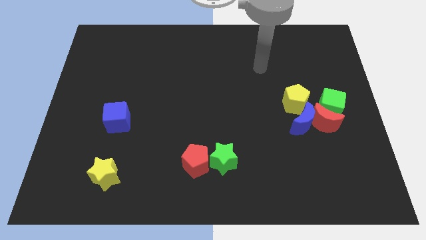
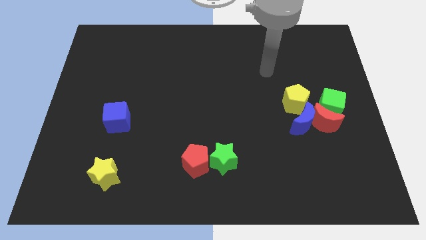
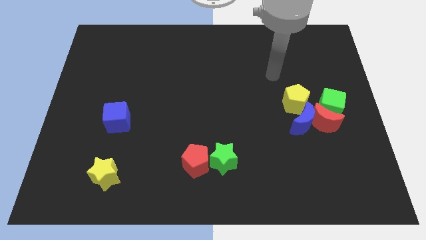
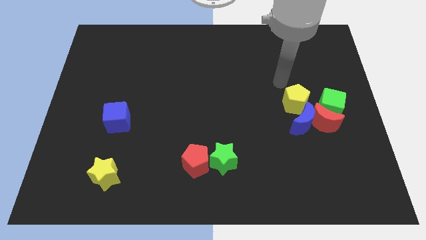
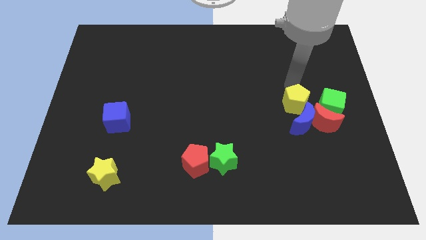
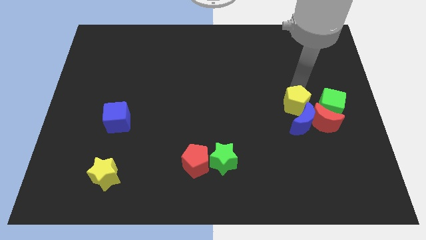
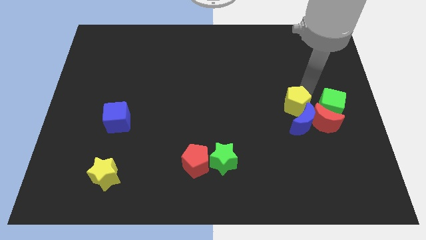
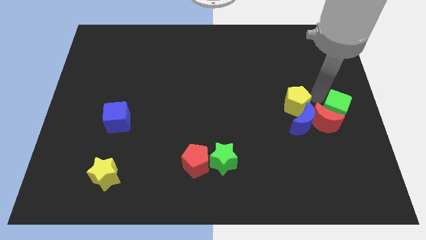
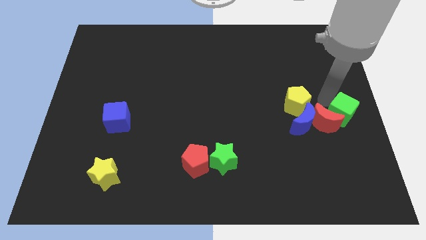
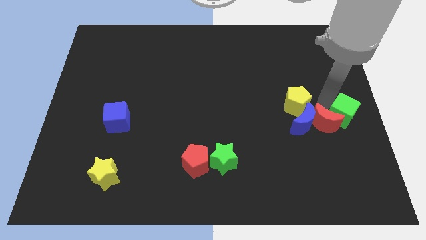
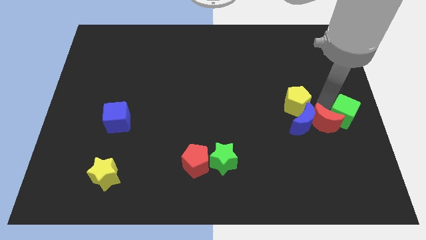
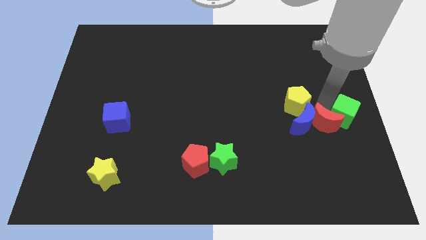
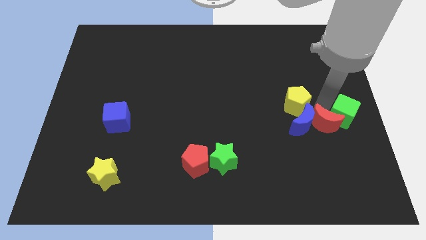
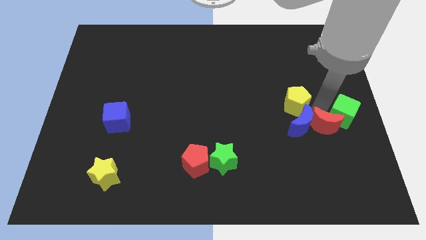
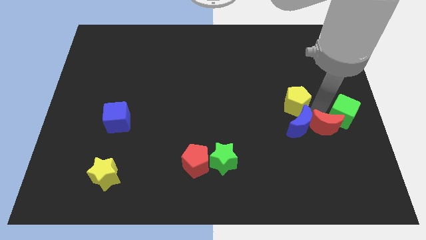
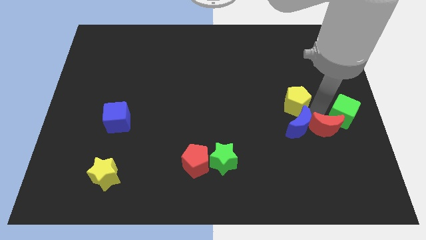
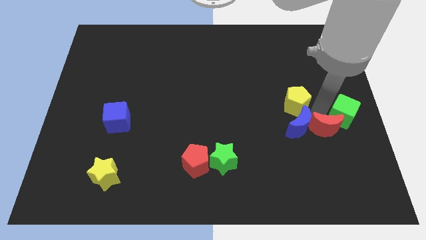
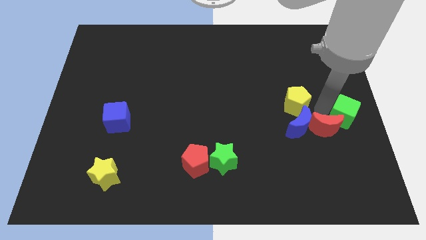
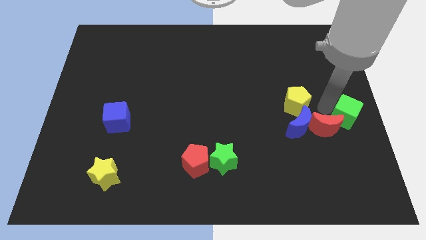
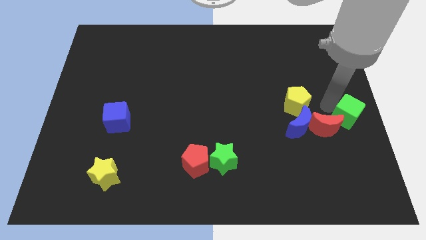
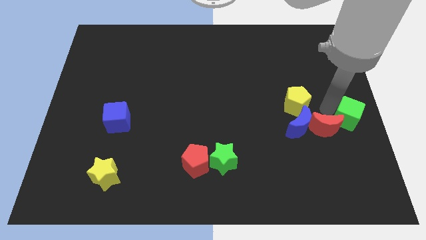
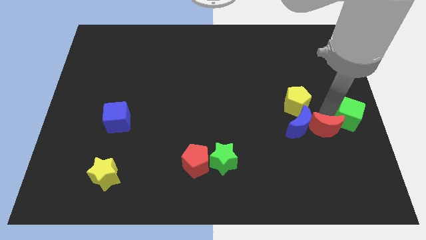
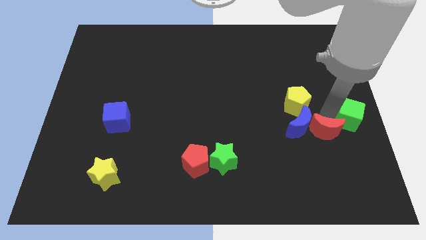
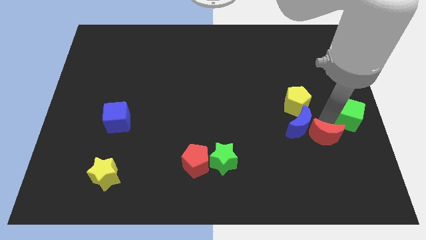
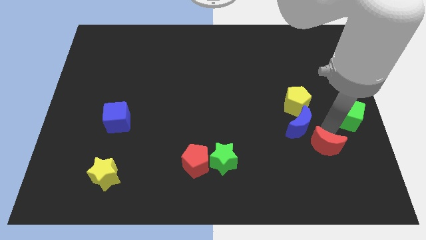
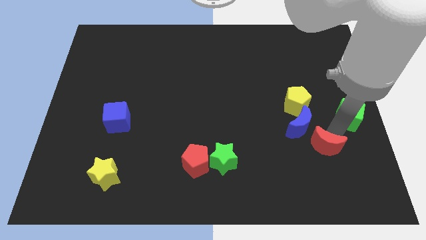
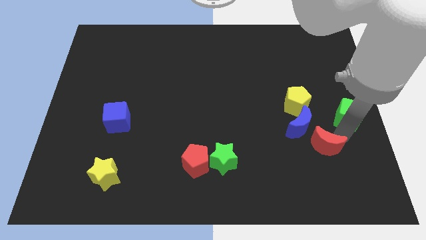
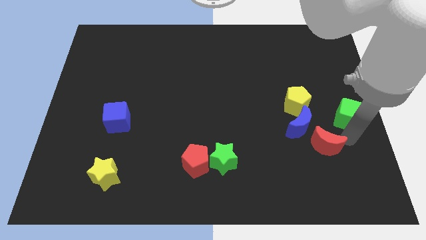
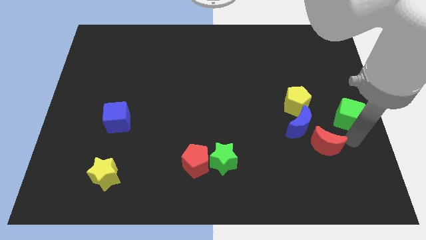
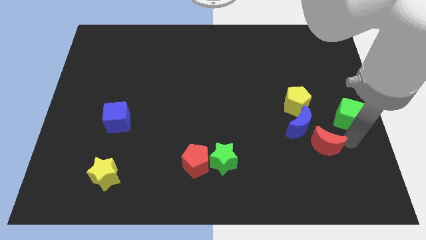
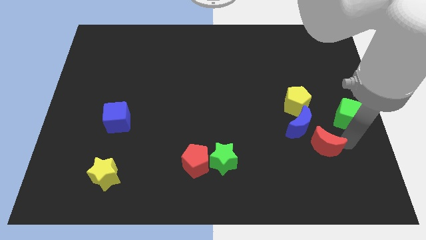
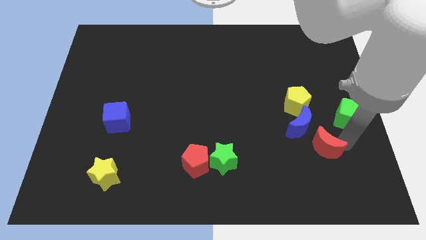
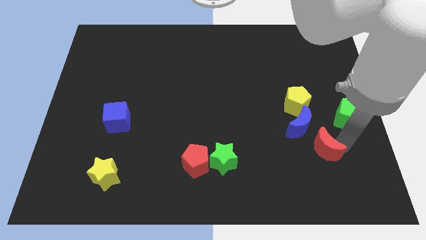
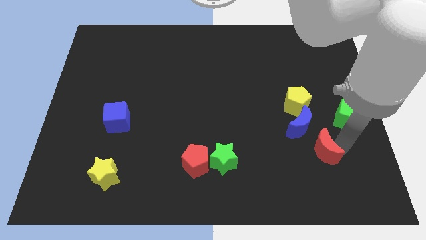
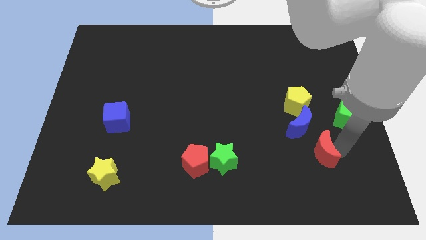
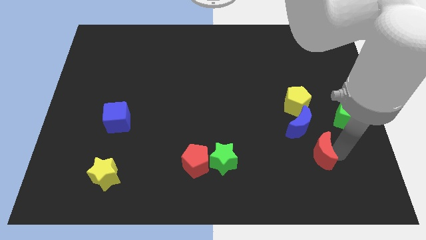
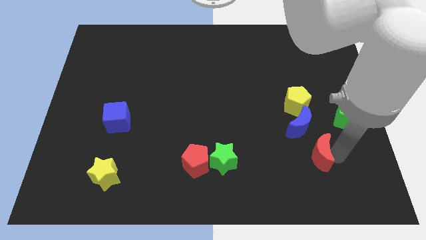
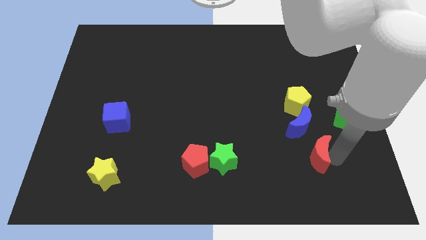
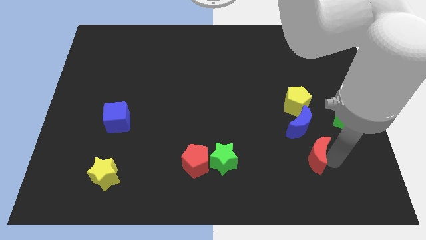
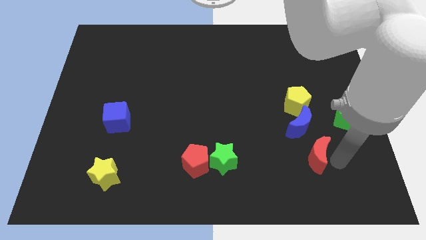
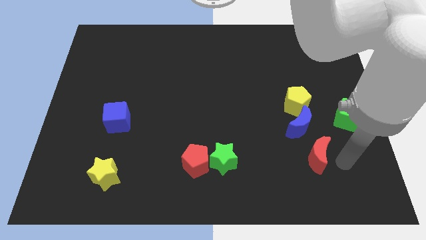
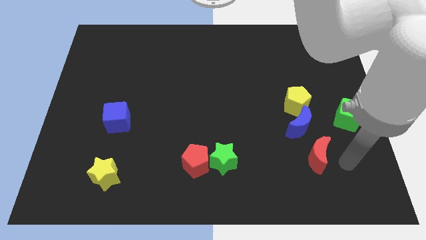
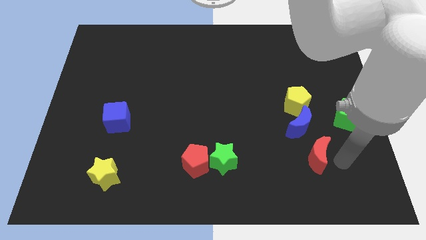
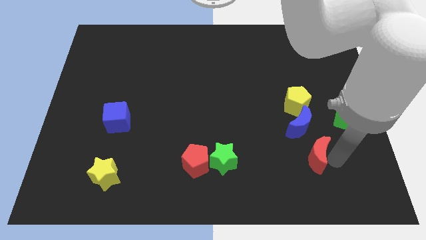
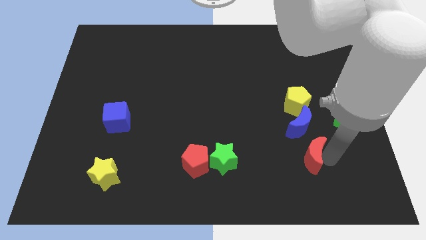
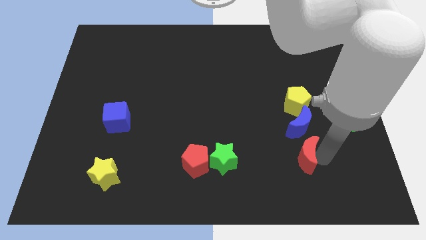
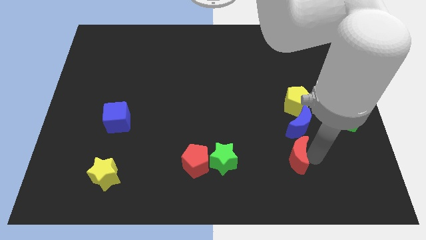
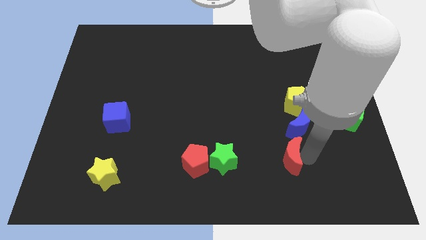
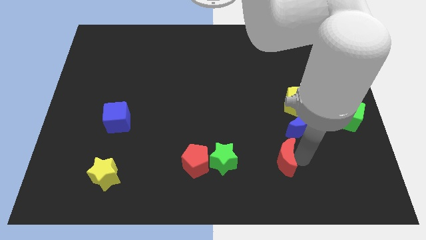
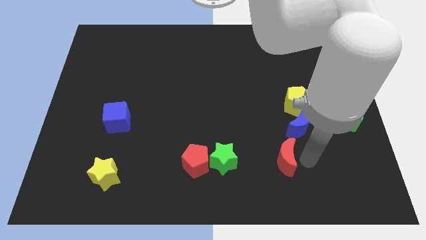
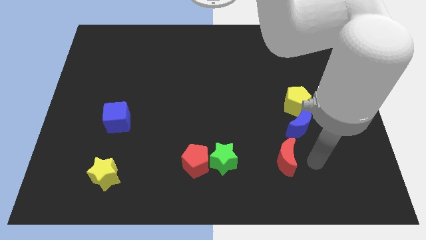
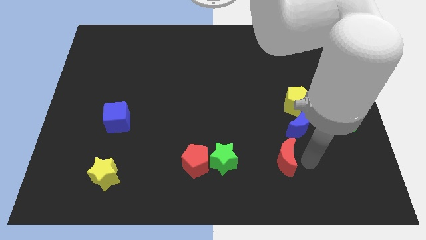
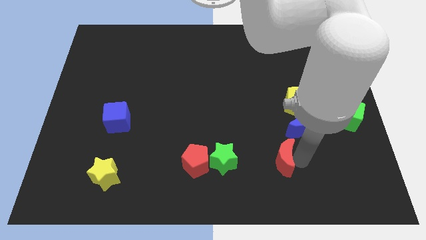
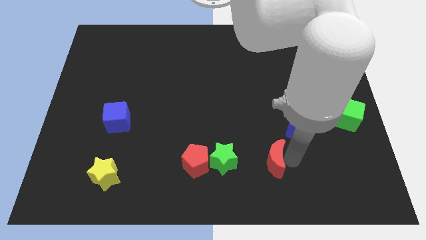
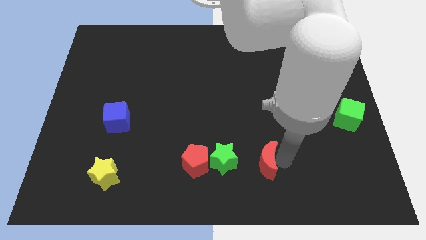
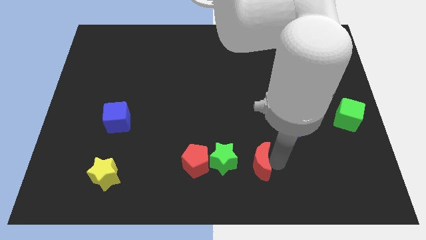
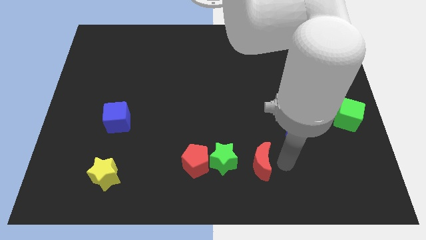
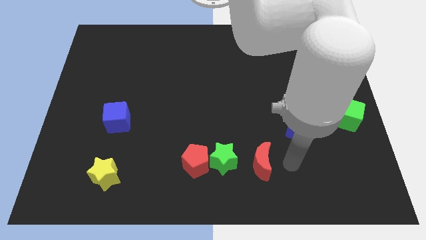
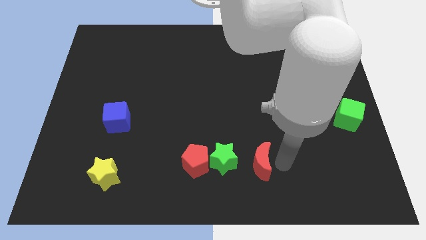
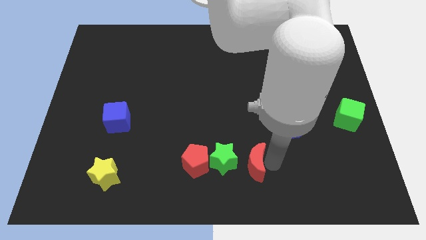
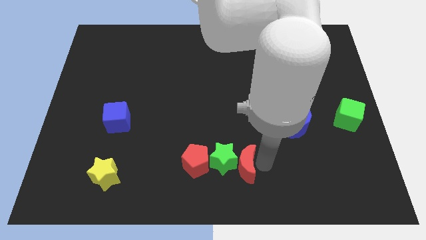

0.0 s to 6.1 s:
push the red moon next to the green star

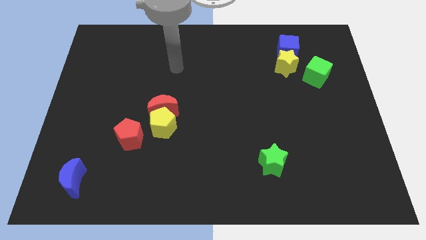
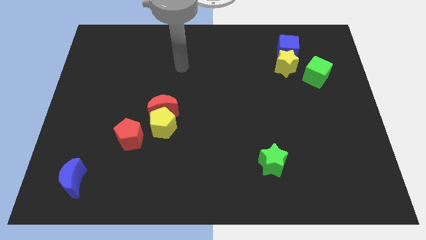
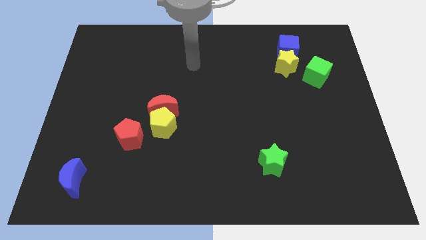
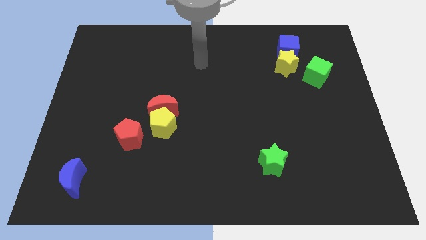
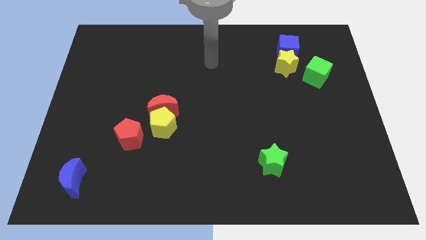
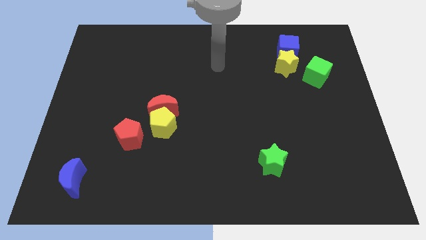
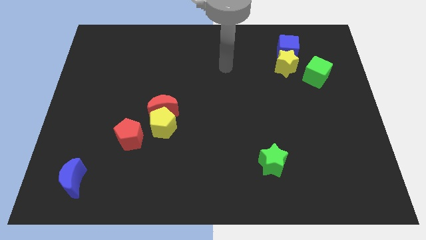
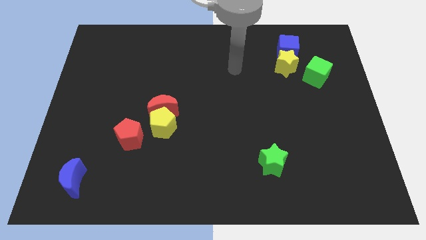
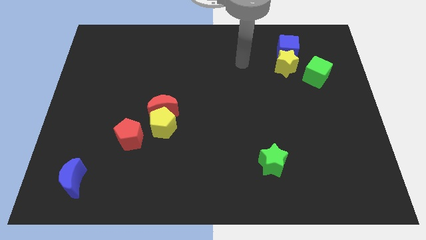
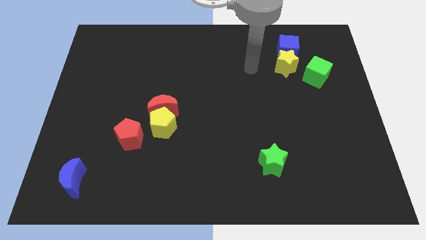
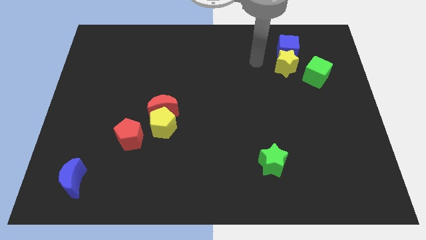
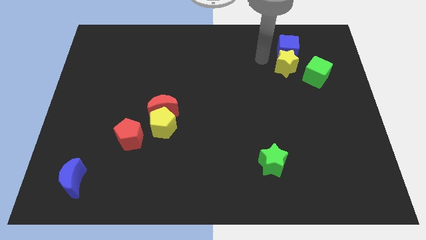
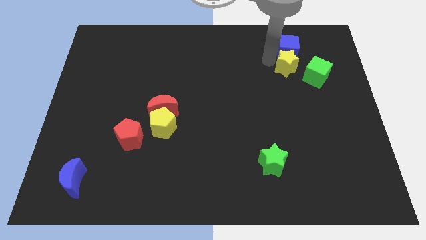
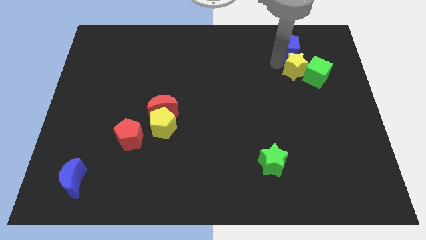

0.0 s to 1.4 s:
push the yellow star towards the green cube
